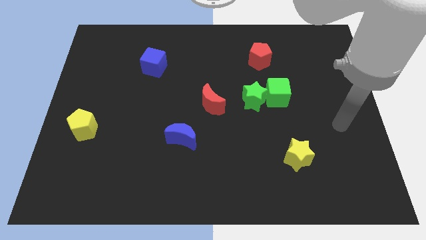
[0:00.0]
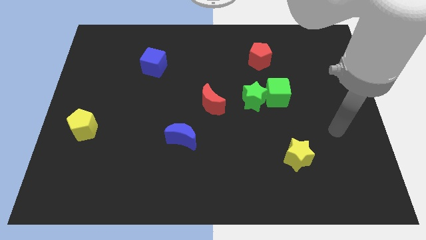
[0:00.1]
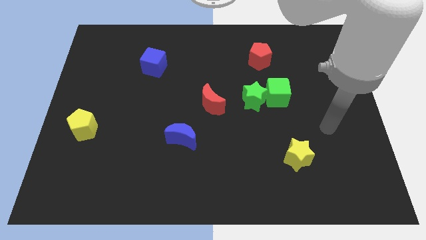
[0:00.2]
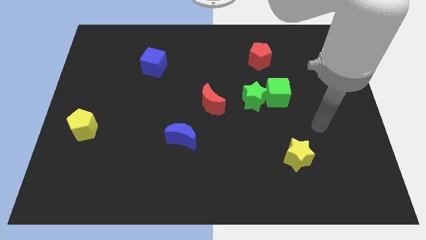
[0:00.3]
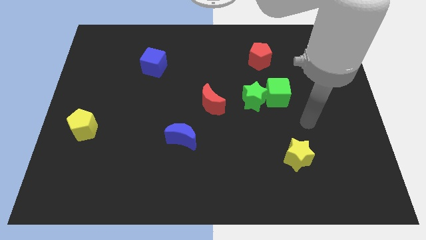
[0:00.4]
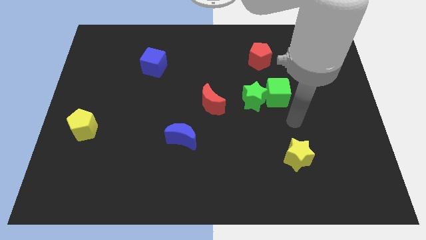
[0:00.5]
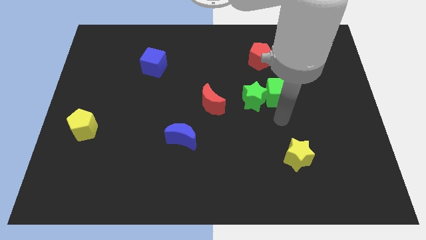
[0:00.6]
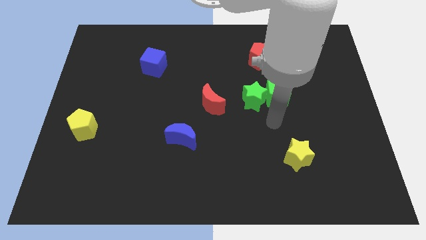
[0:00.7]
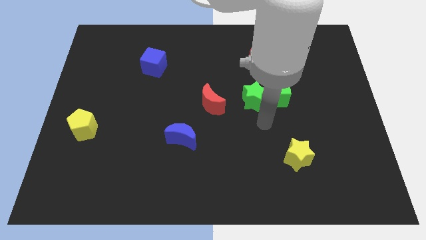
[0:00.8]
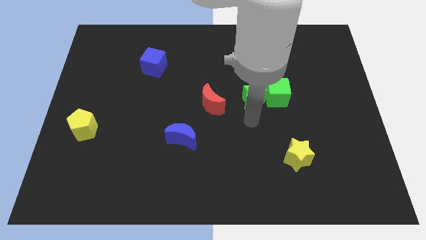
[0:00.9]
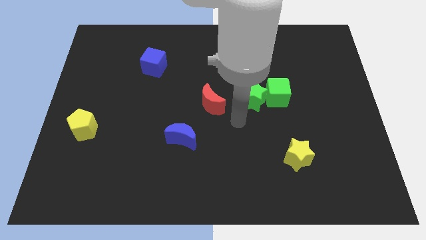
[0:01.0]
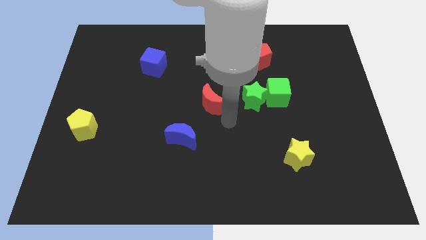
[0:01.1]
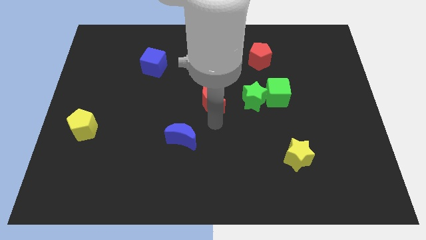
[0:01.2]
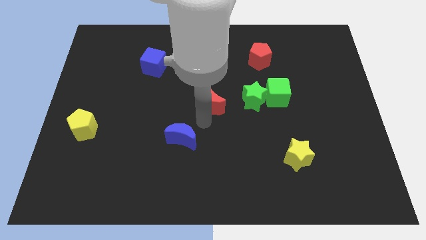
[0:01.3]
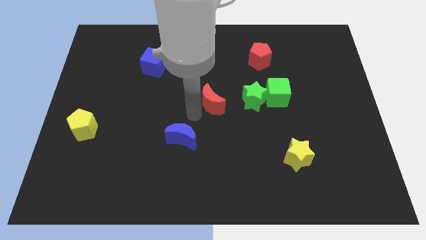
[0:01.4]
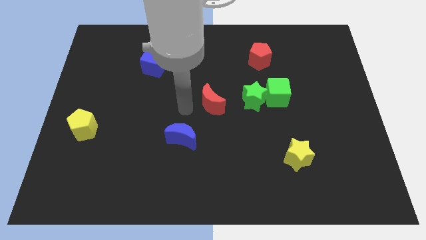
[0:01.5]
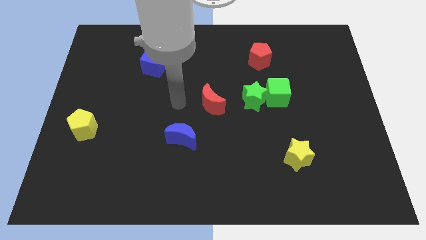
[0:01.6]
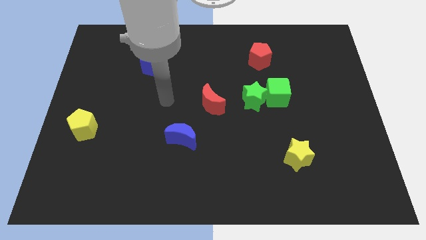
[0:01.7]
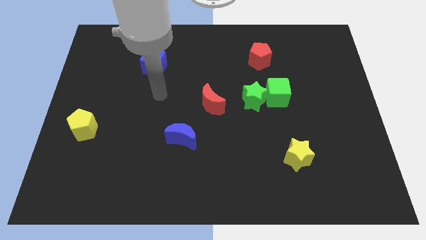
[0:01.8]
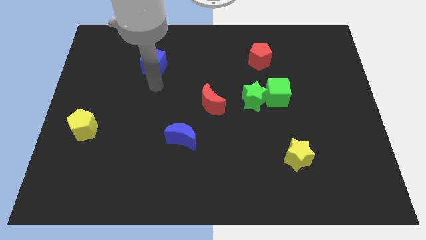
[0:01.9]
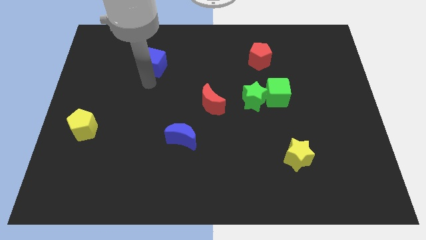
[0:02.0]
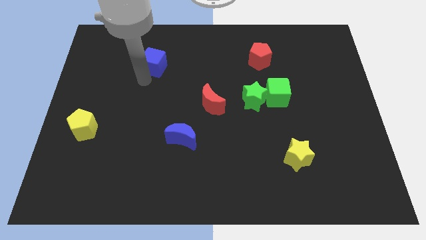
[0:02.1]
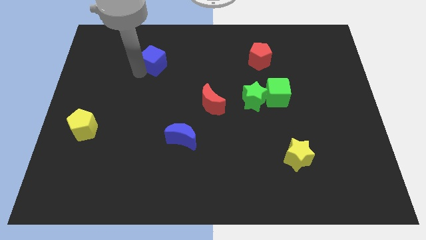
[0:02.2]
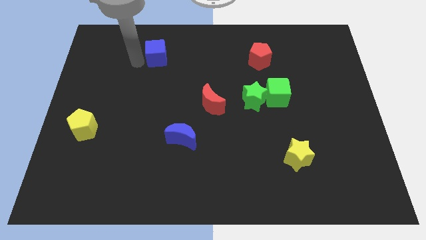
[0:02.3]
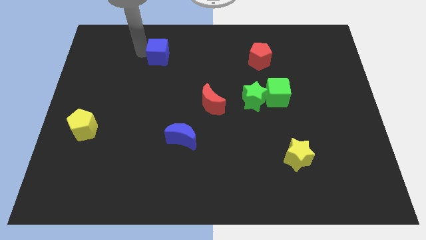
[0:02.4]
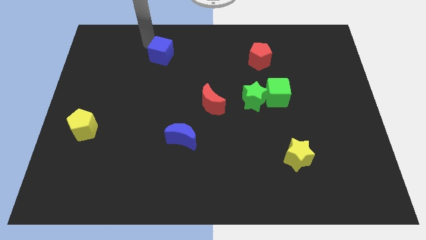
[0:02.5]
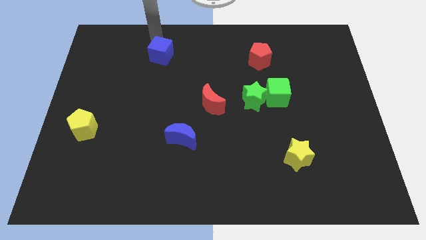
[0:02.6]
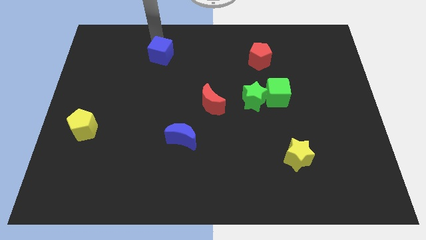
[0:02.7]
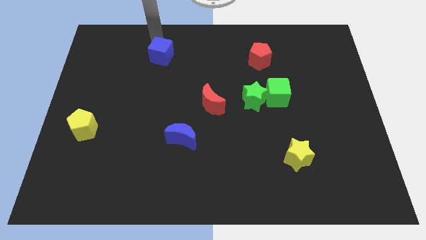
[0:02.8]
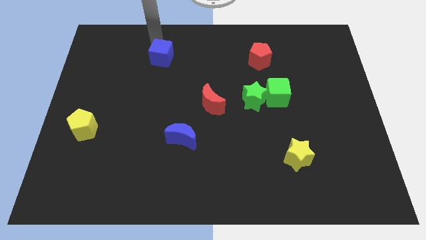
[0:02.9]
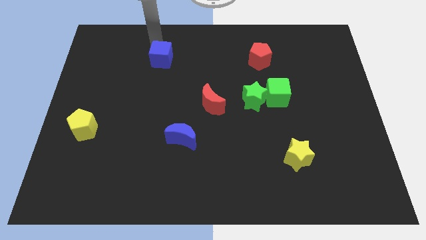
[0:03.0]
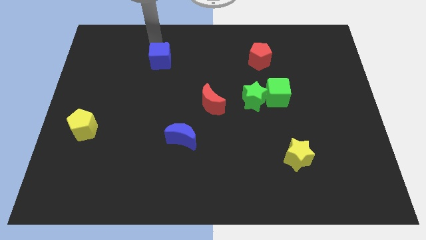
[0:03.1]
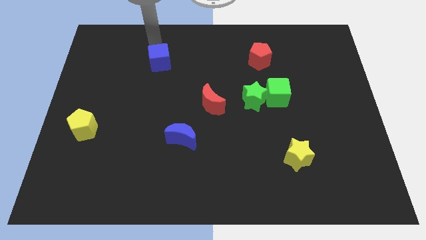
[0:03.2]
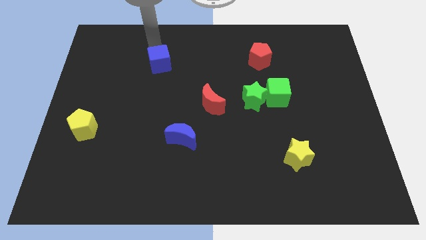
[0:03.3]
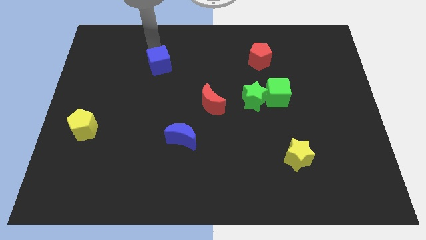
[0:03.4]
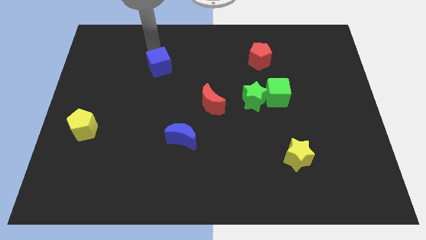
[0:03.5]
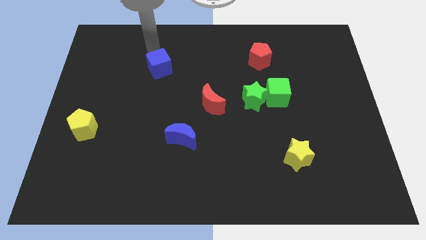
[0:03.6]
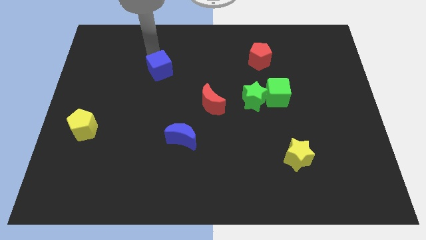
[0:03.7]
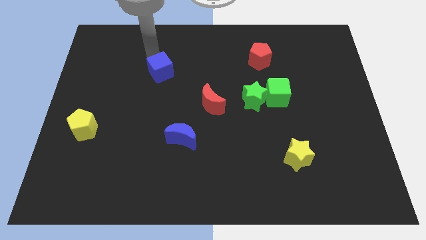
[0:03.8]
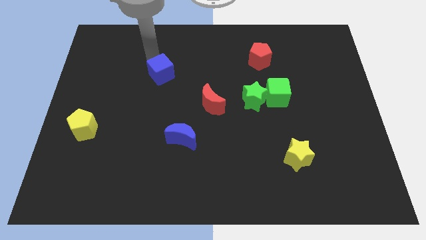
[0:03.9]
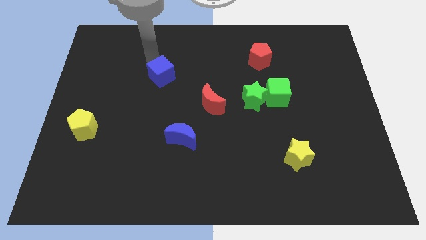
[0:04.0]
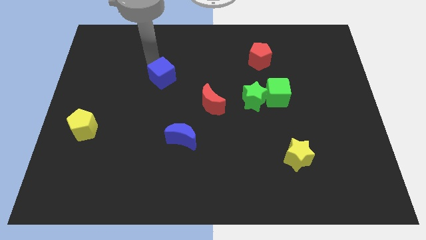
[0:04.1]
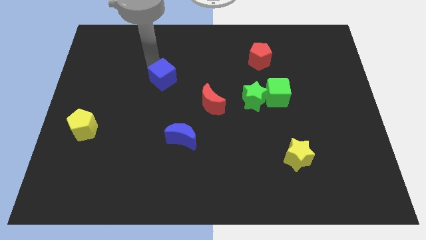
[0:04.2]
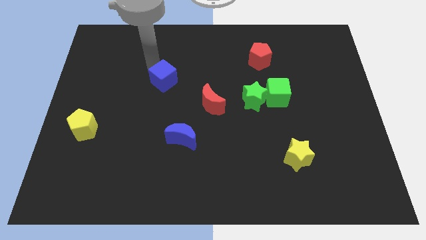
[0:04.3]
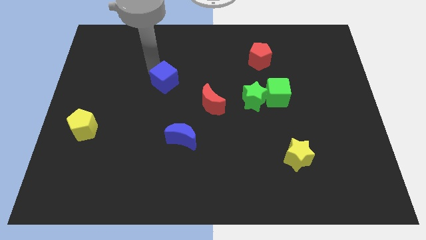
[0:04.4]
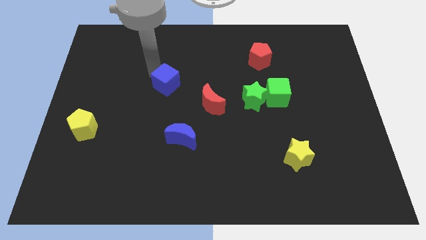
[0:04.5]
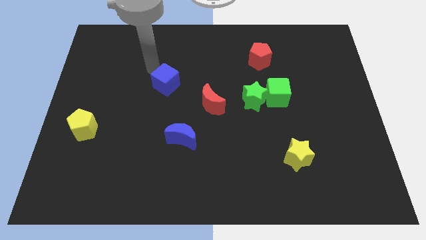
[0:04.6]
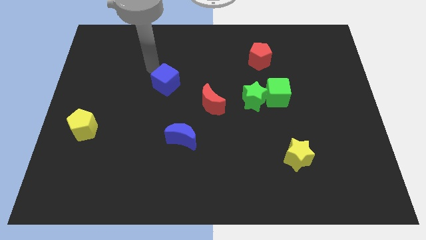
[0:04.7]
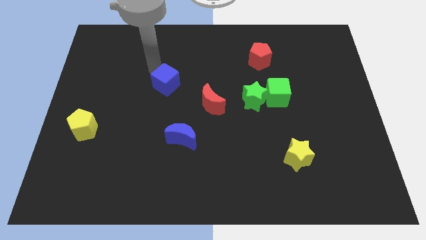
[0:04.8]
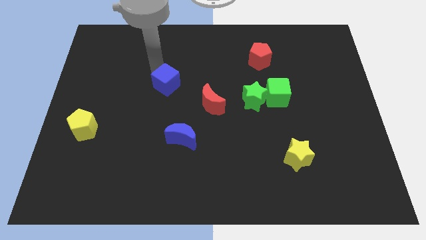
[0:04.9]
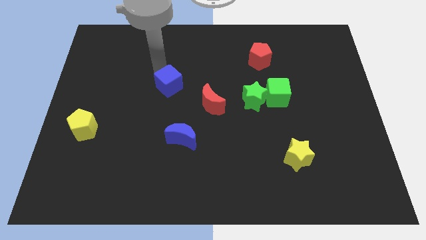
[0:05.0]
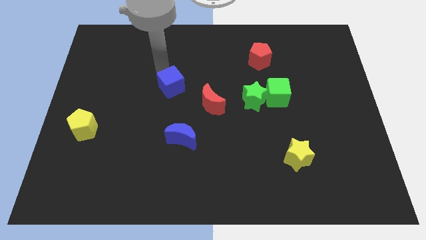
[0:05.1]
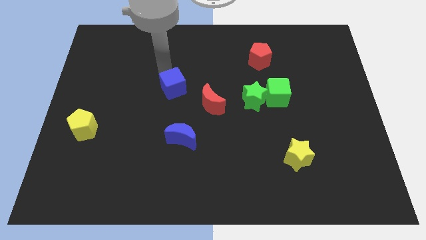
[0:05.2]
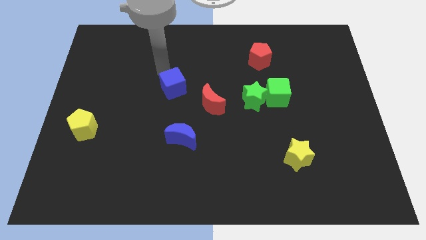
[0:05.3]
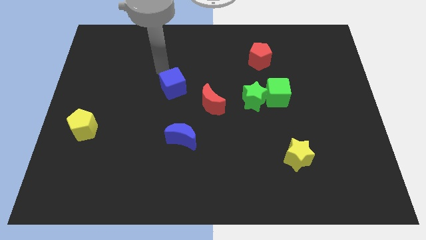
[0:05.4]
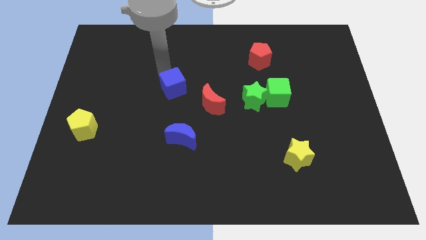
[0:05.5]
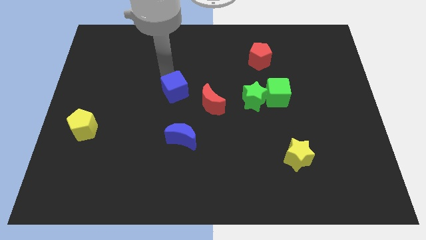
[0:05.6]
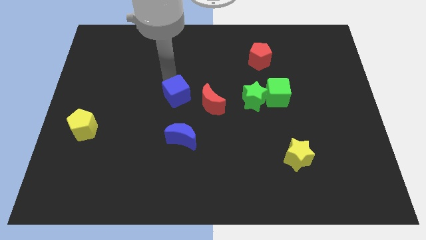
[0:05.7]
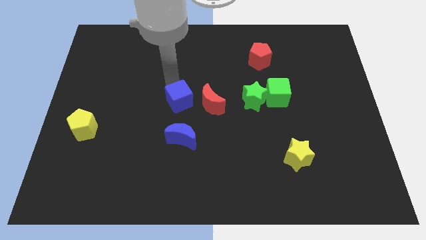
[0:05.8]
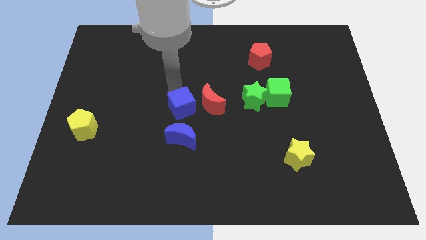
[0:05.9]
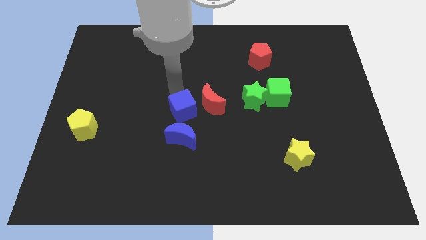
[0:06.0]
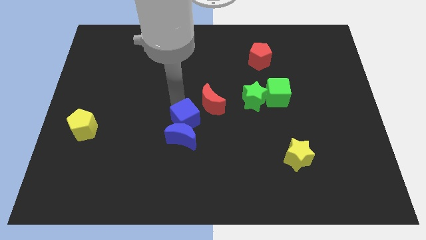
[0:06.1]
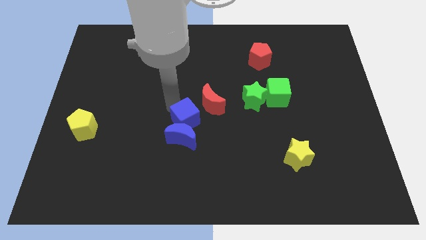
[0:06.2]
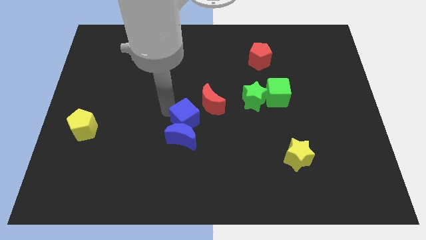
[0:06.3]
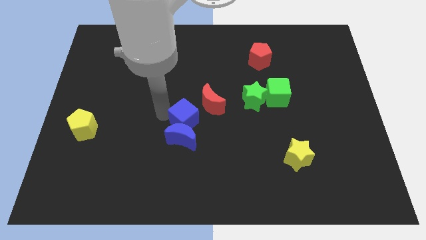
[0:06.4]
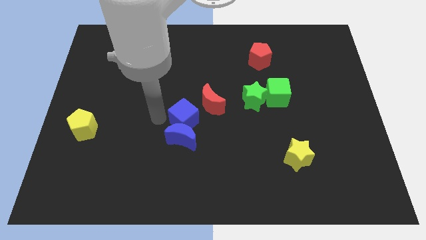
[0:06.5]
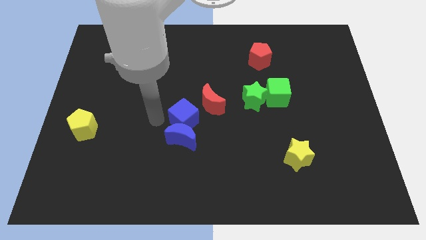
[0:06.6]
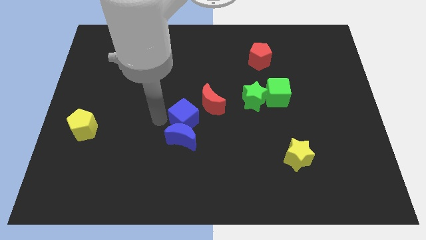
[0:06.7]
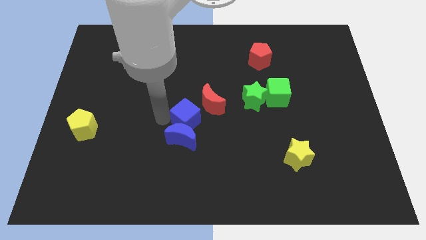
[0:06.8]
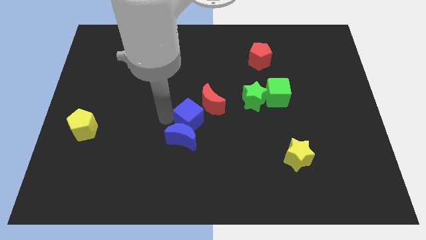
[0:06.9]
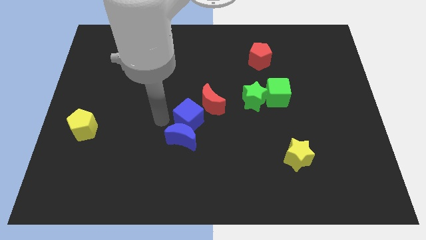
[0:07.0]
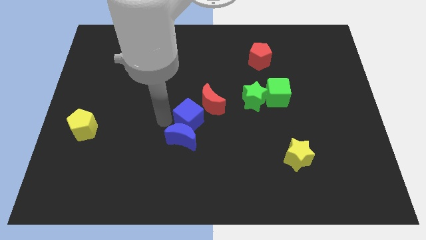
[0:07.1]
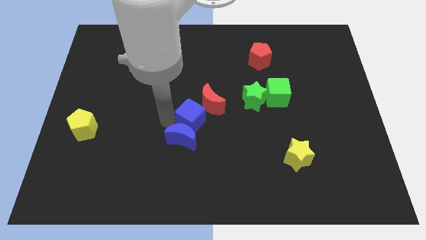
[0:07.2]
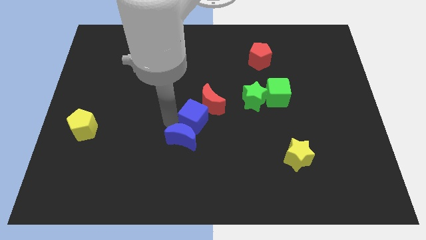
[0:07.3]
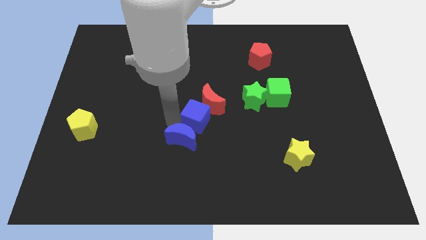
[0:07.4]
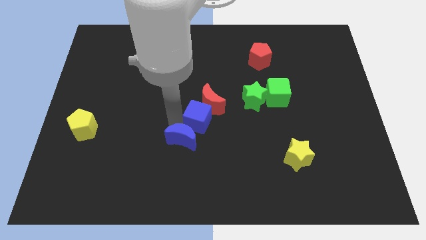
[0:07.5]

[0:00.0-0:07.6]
push the blue cube down and to the right diagonally
